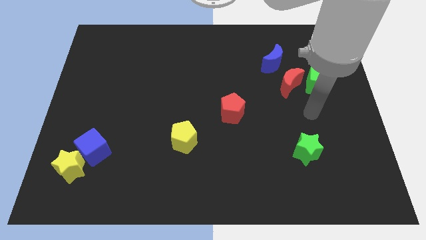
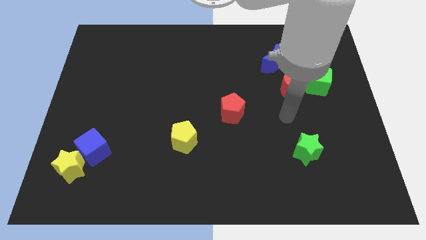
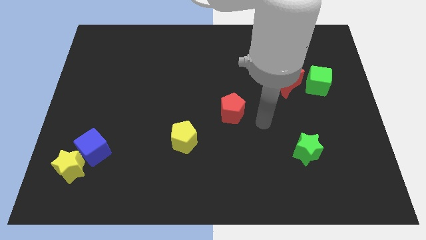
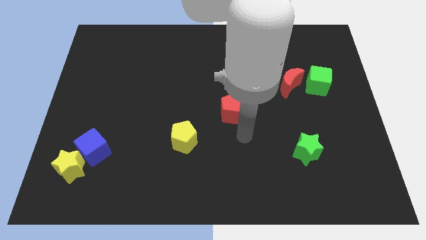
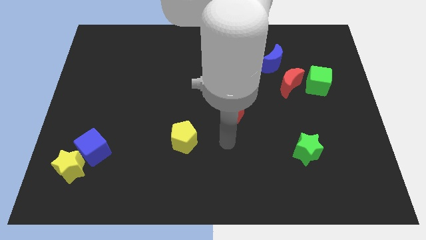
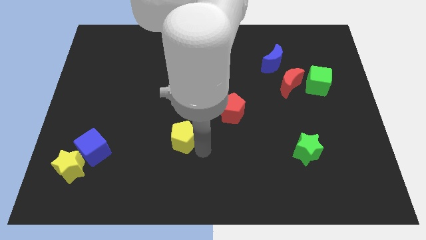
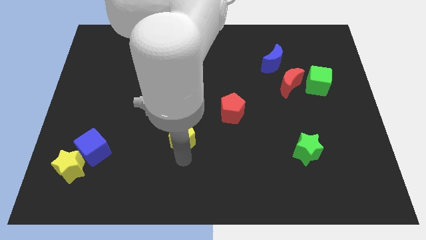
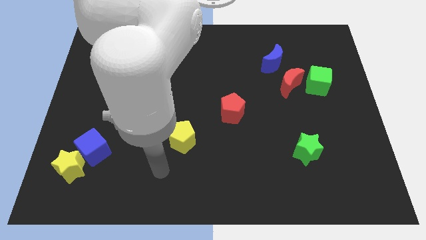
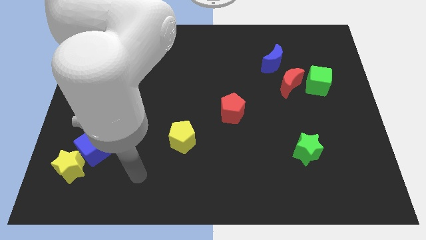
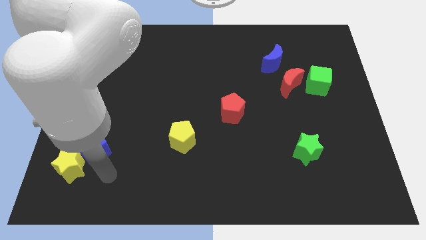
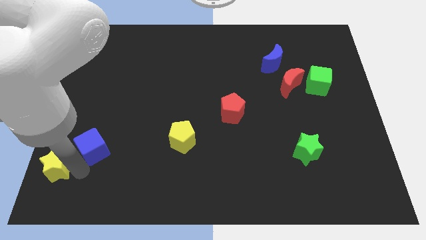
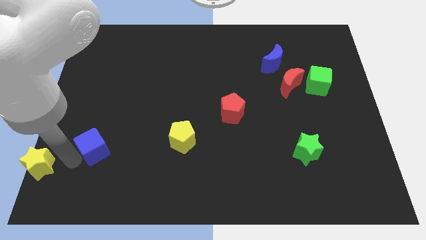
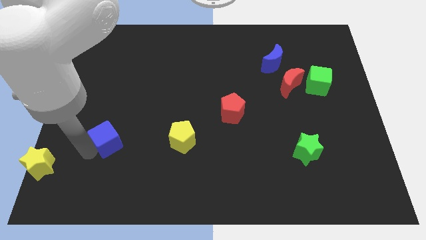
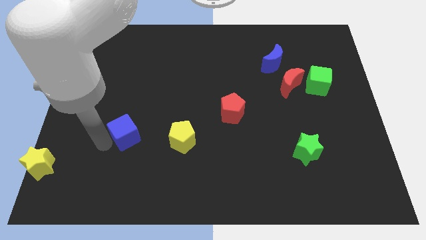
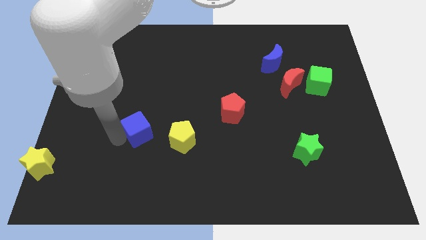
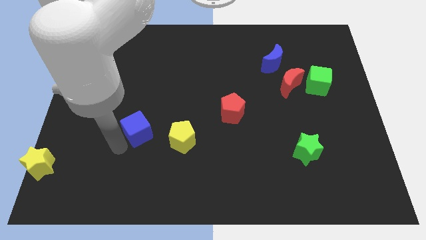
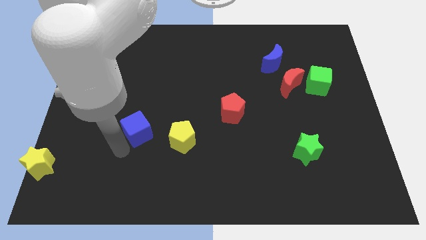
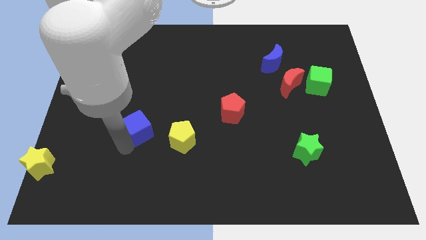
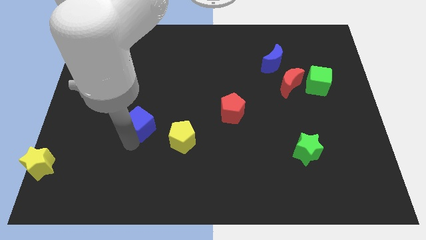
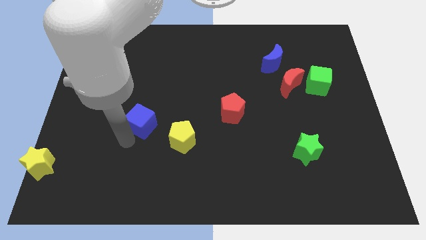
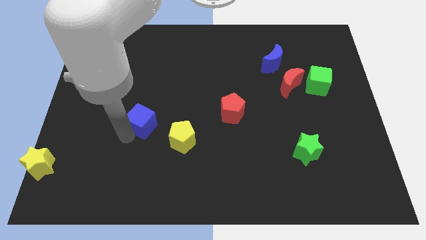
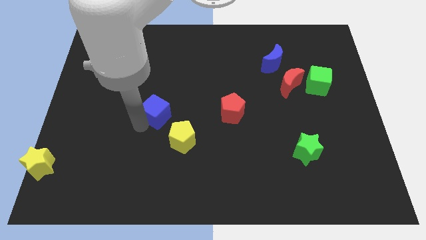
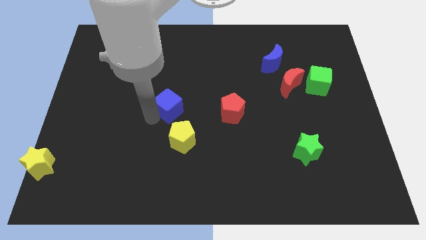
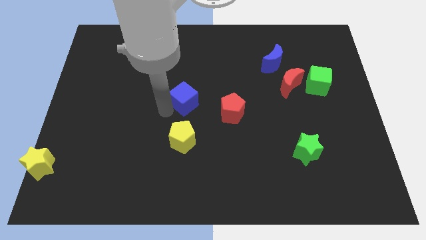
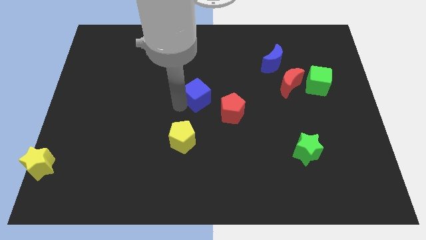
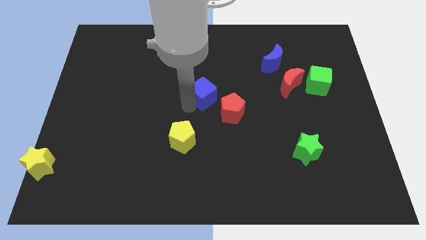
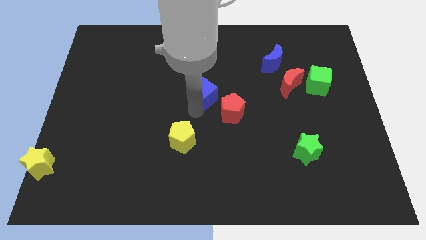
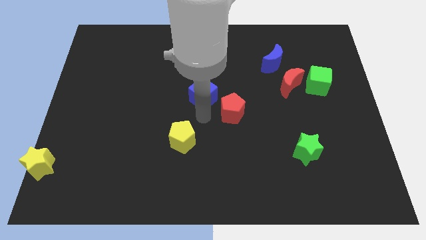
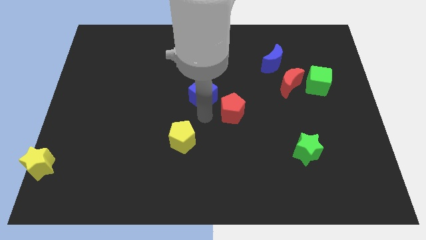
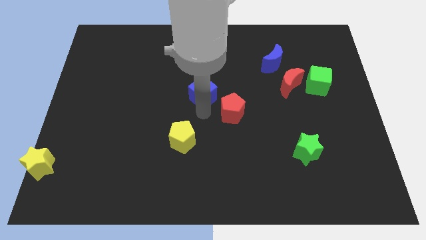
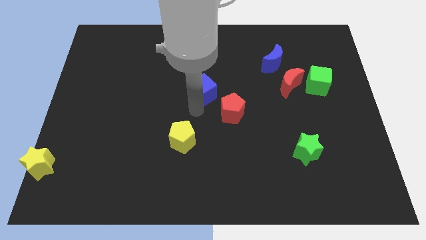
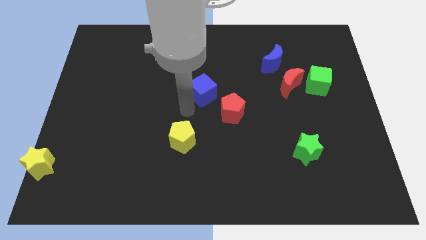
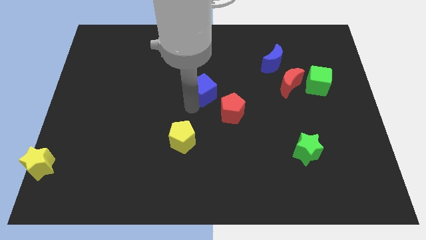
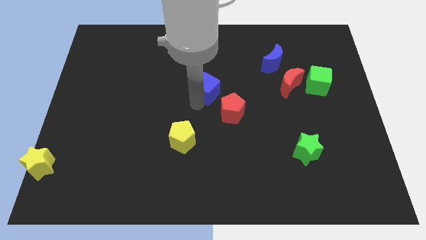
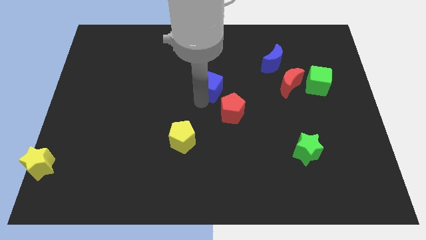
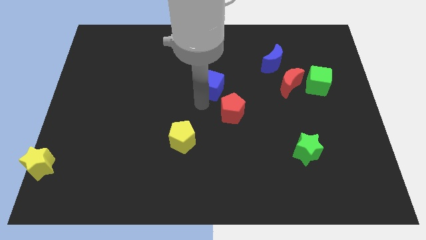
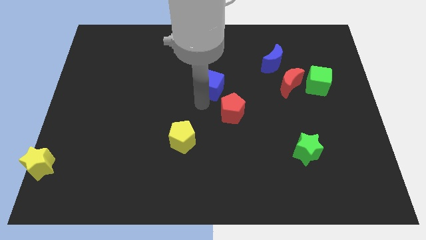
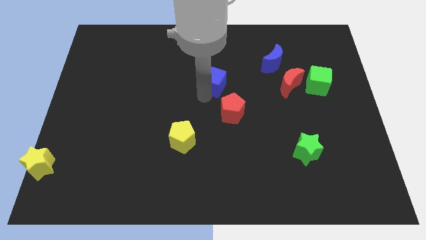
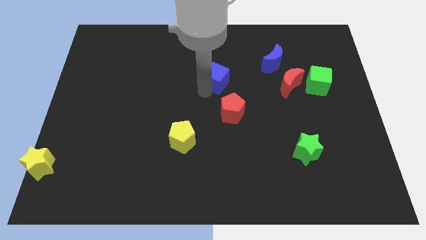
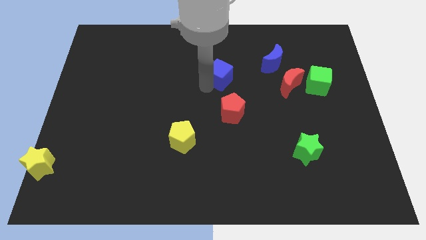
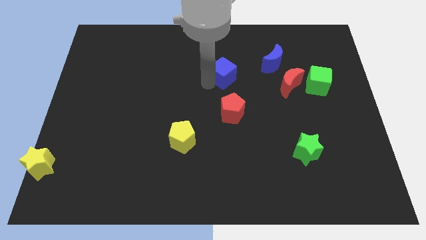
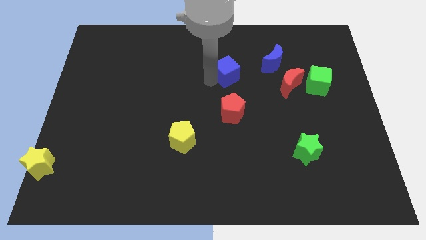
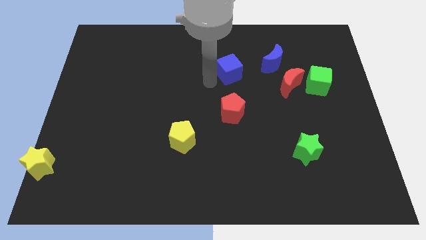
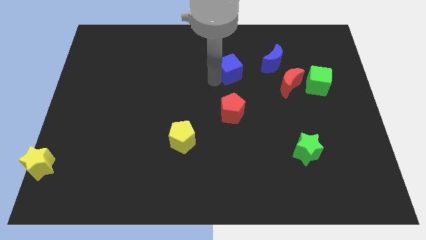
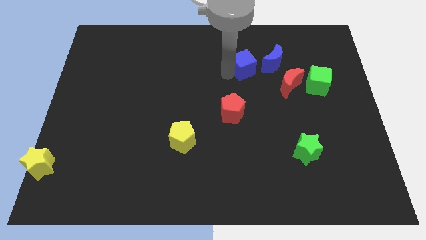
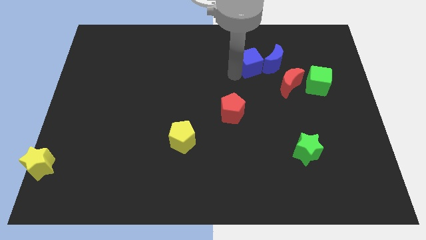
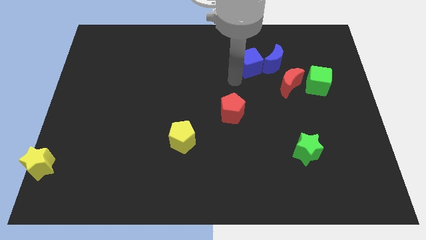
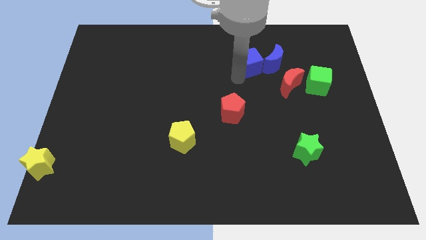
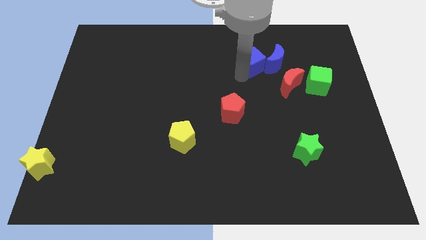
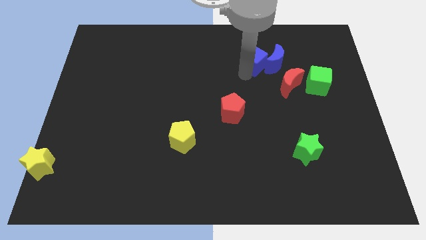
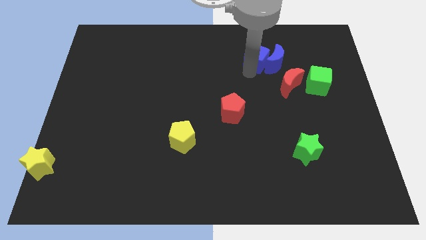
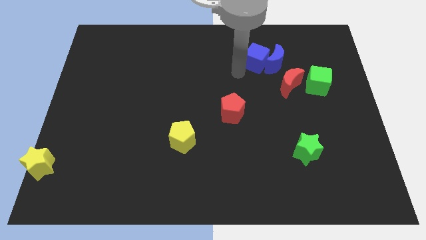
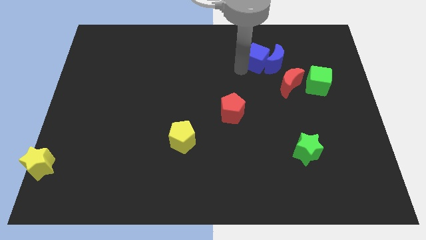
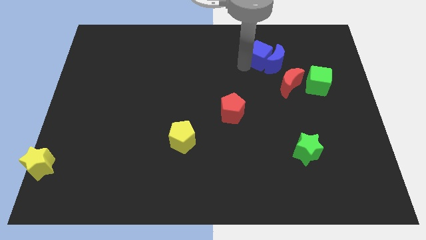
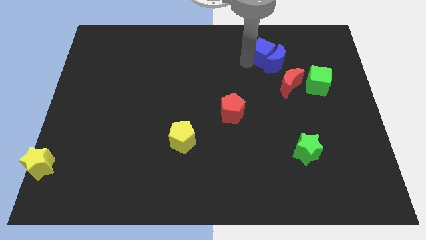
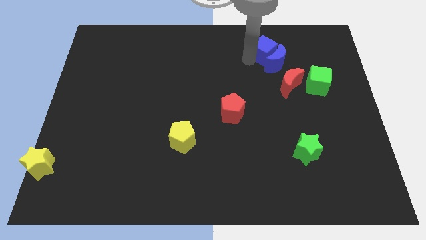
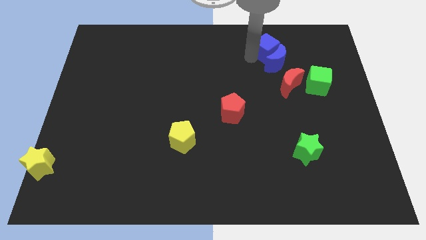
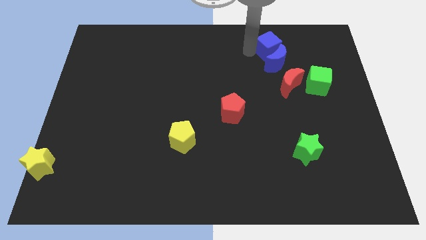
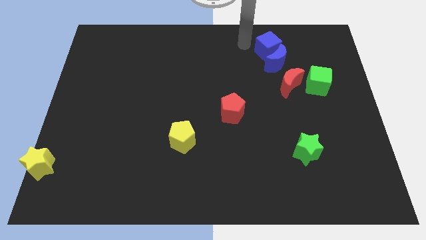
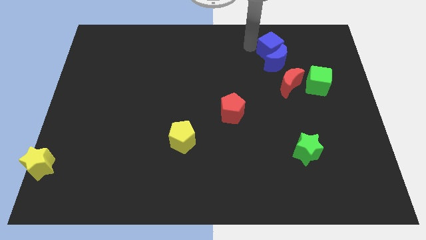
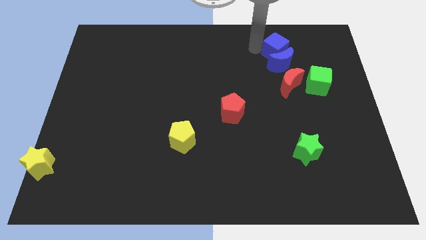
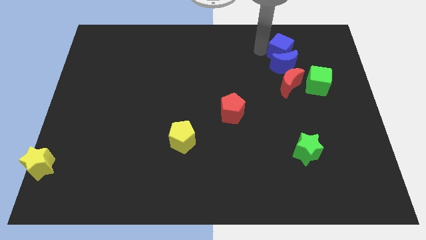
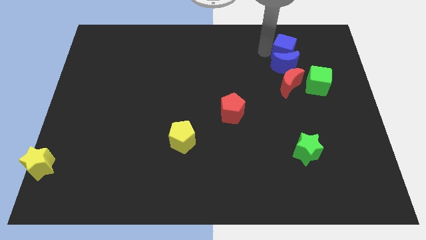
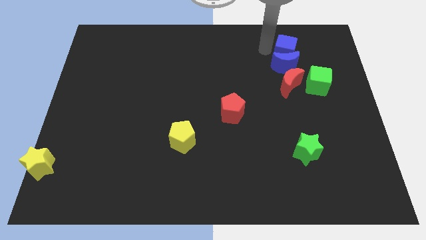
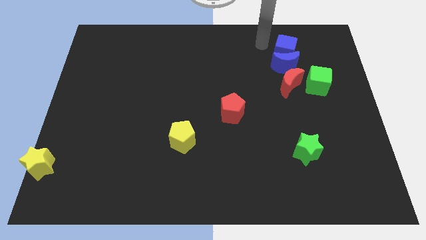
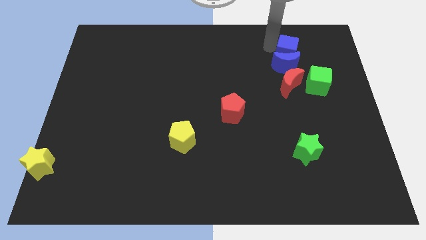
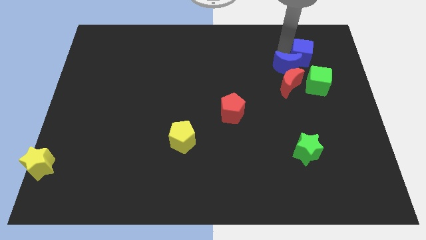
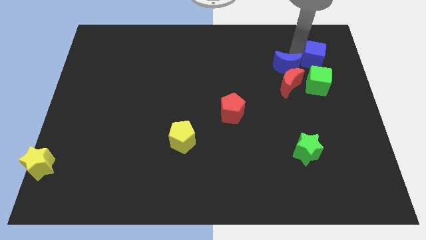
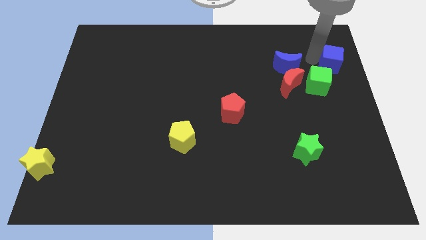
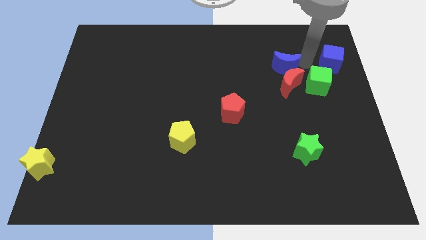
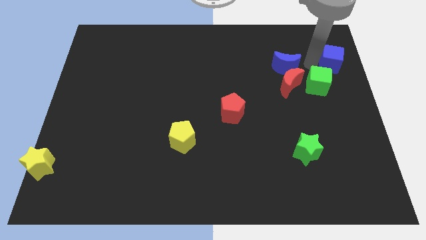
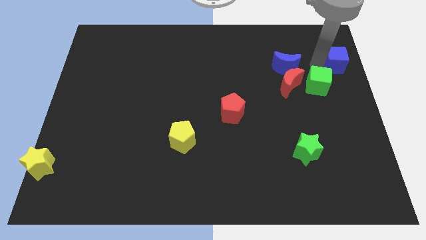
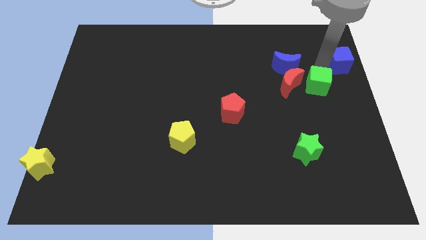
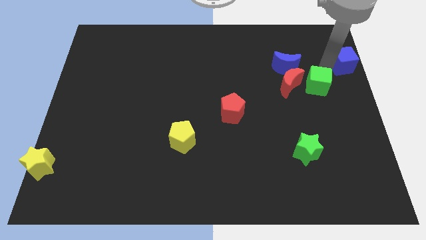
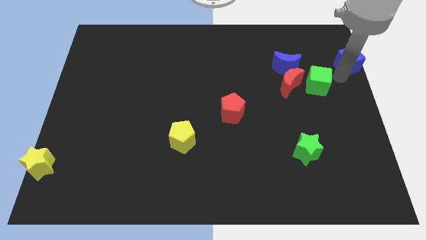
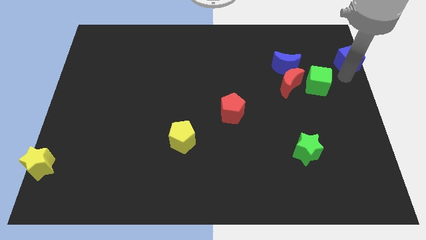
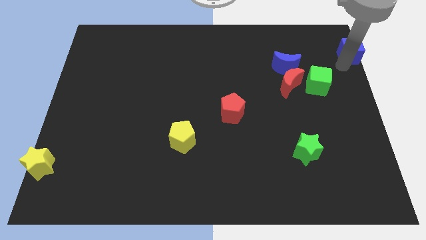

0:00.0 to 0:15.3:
slide the blue cube to the top right corner
